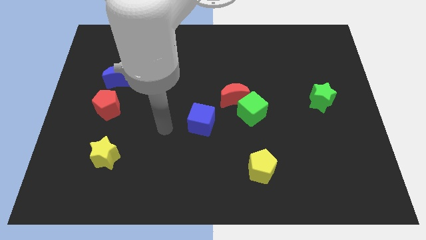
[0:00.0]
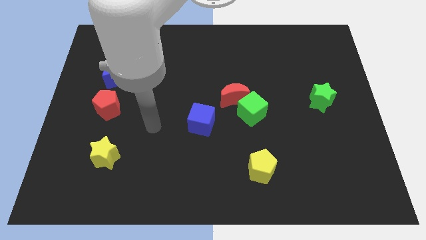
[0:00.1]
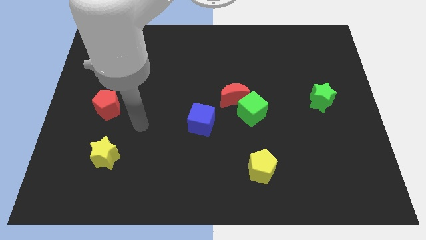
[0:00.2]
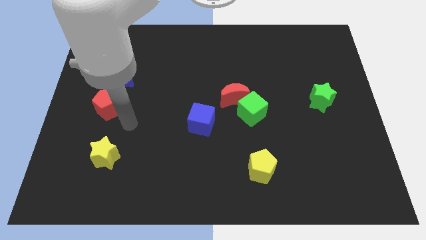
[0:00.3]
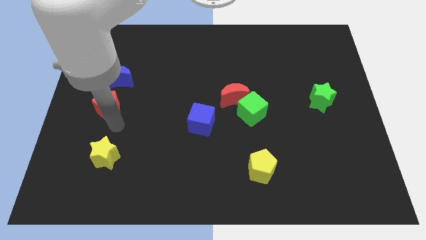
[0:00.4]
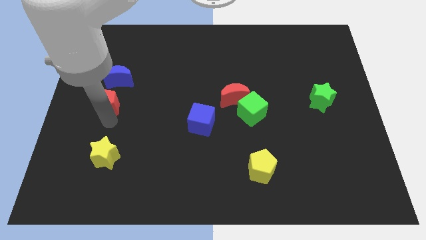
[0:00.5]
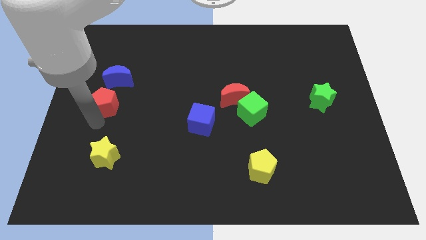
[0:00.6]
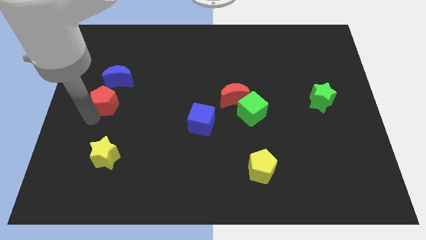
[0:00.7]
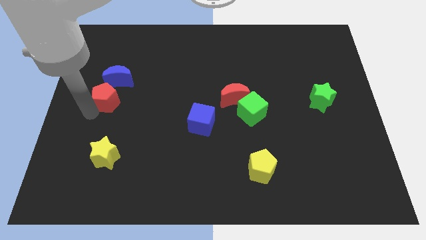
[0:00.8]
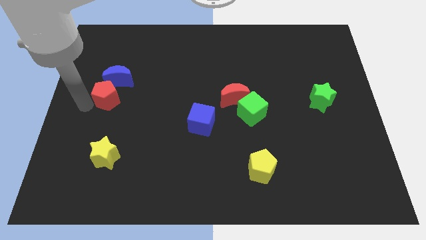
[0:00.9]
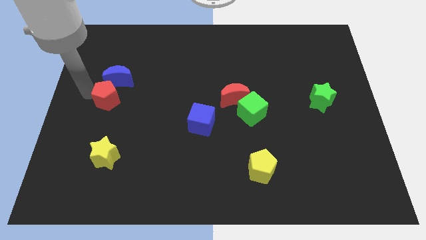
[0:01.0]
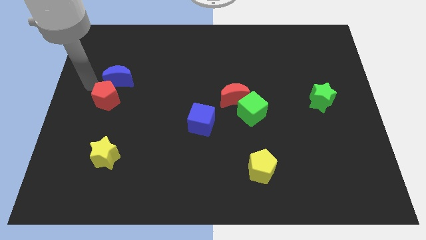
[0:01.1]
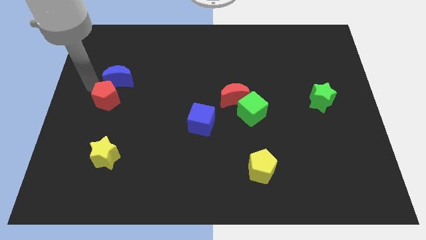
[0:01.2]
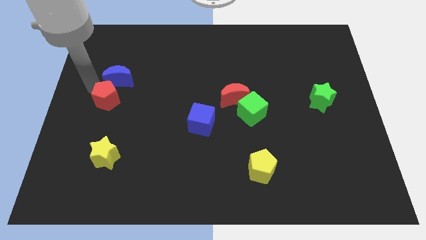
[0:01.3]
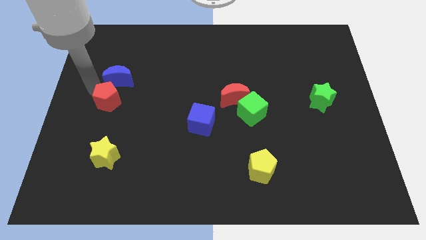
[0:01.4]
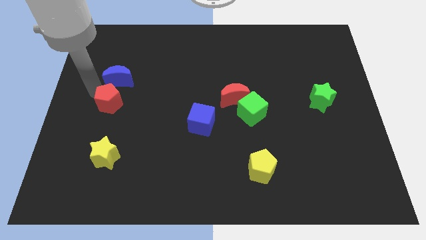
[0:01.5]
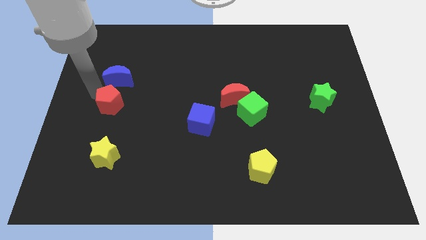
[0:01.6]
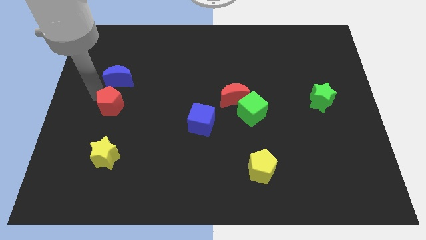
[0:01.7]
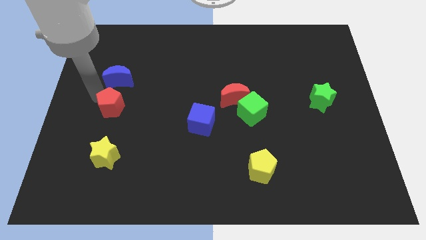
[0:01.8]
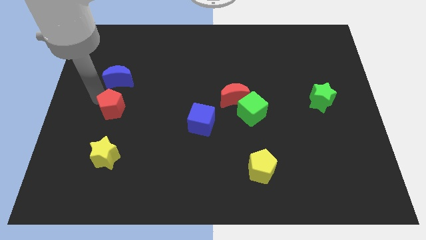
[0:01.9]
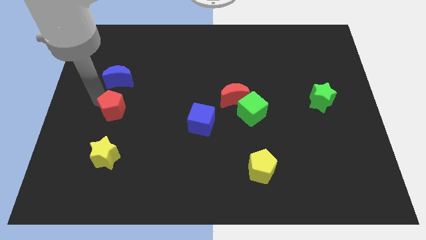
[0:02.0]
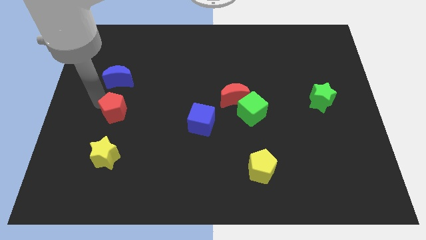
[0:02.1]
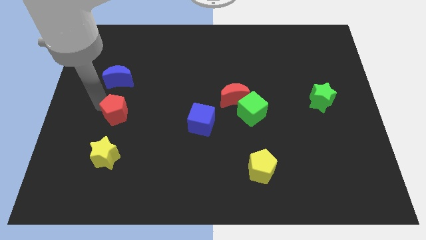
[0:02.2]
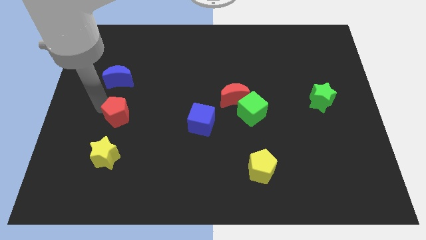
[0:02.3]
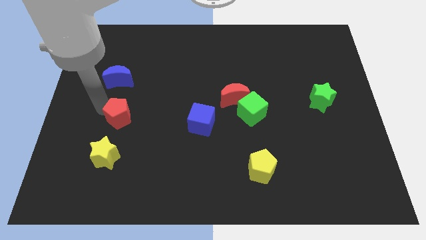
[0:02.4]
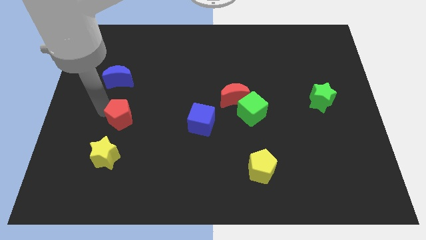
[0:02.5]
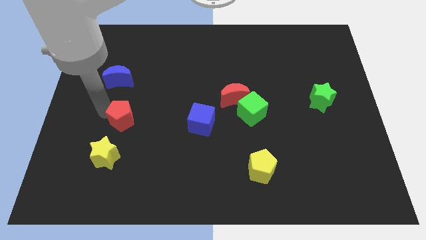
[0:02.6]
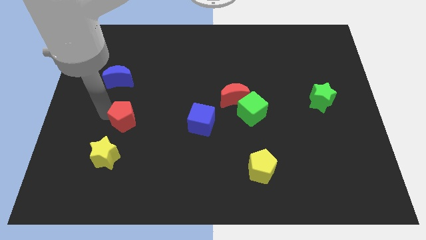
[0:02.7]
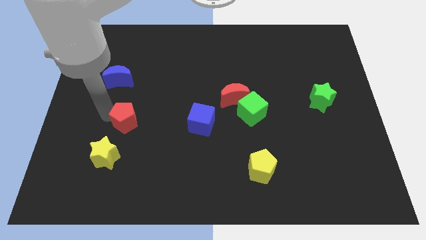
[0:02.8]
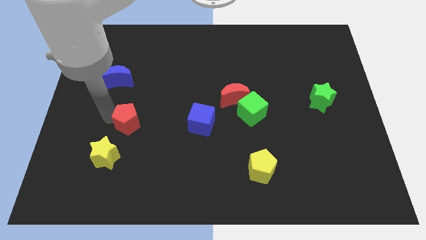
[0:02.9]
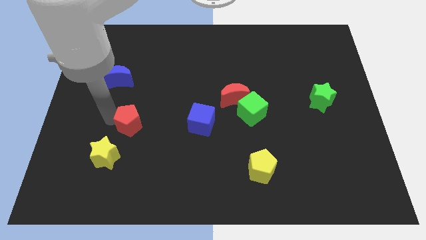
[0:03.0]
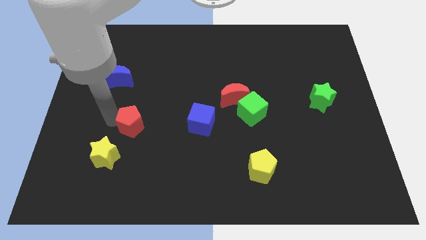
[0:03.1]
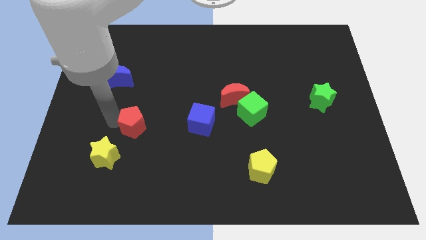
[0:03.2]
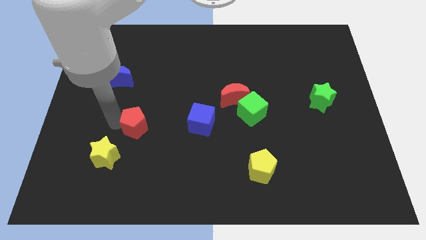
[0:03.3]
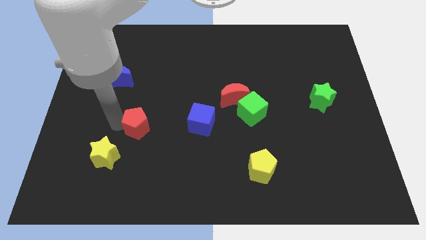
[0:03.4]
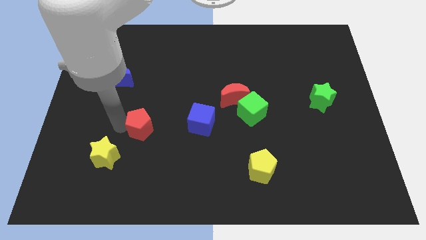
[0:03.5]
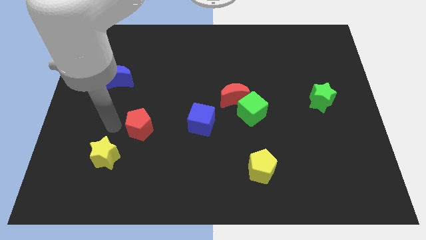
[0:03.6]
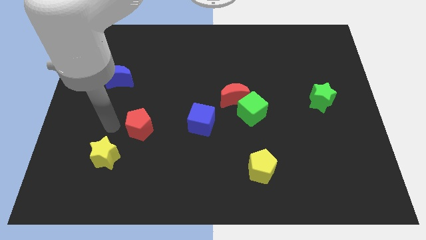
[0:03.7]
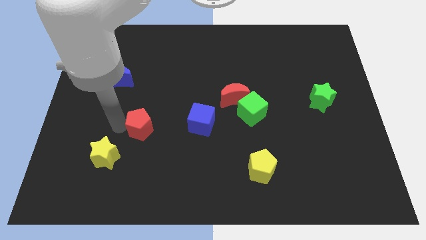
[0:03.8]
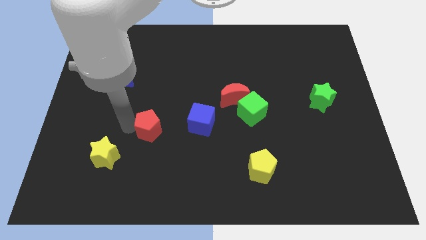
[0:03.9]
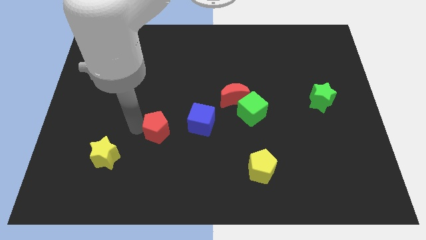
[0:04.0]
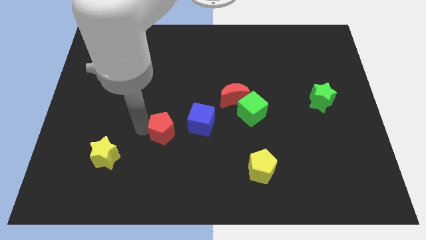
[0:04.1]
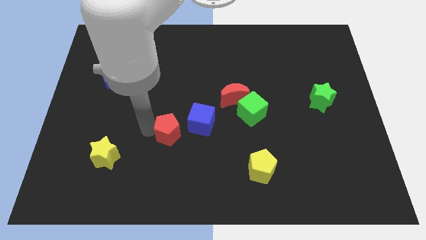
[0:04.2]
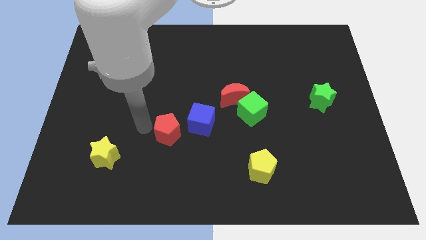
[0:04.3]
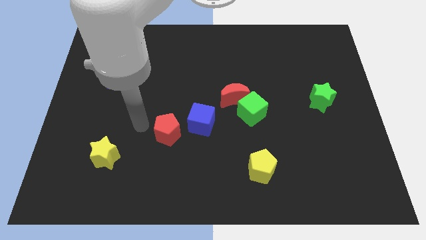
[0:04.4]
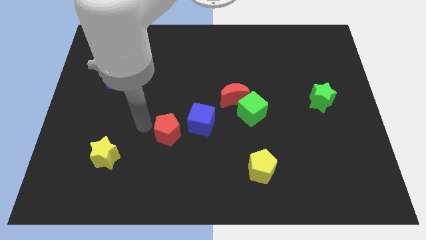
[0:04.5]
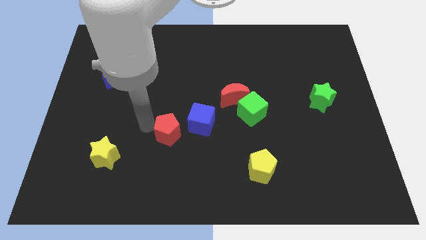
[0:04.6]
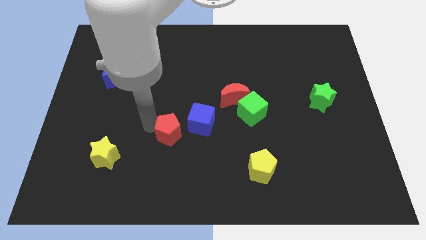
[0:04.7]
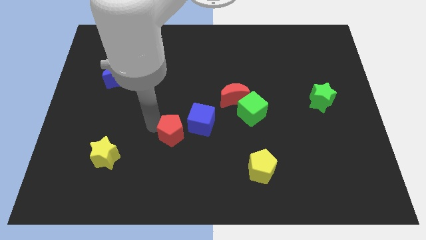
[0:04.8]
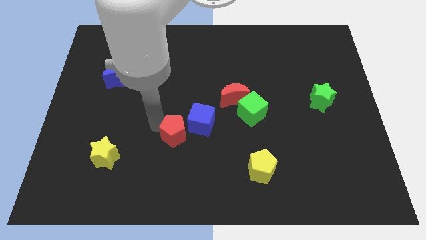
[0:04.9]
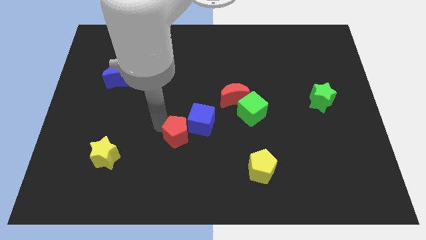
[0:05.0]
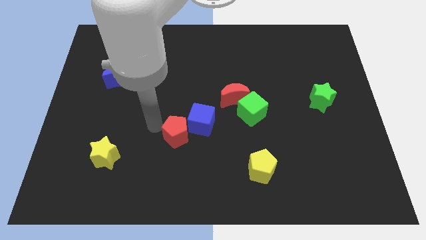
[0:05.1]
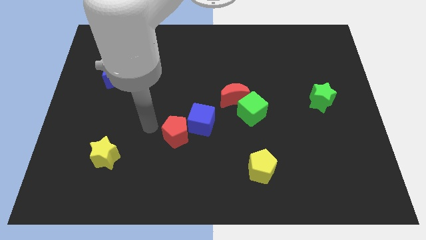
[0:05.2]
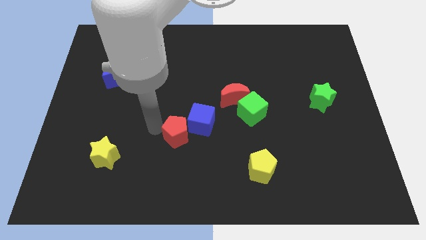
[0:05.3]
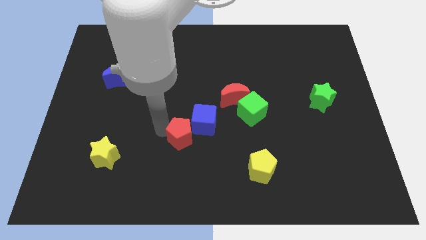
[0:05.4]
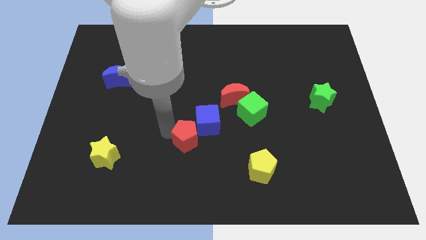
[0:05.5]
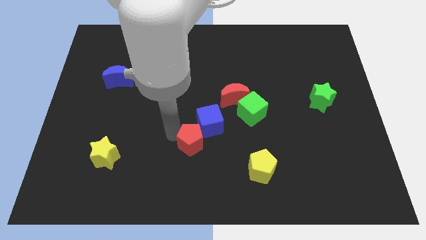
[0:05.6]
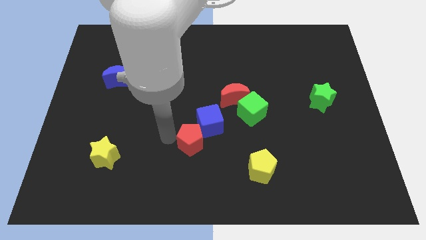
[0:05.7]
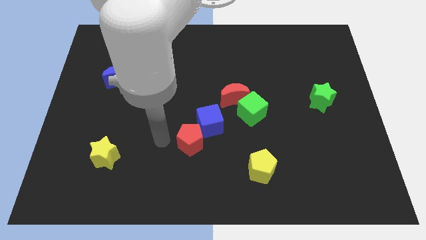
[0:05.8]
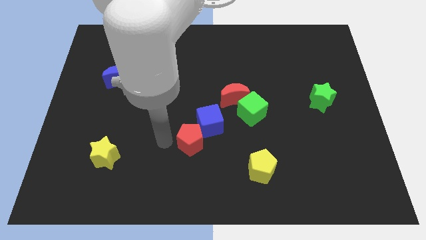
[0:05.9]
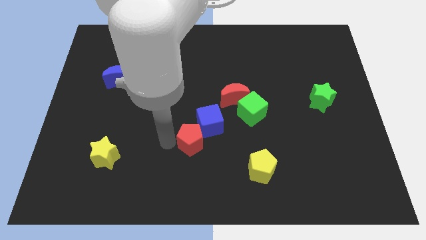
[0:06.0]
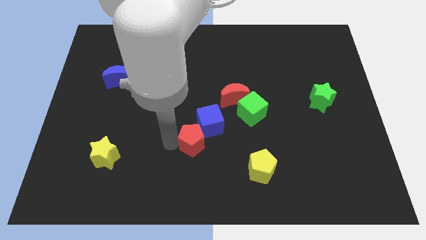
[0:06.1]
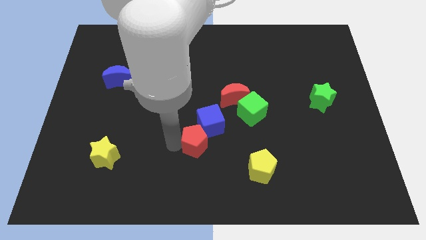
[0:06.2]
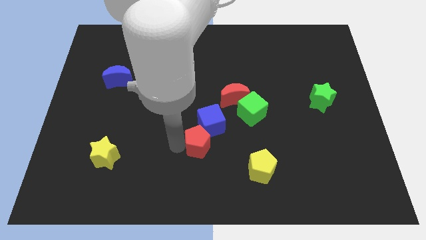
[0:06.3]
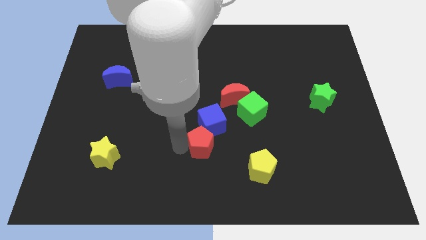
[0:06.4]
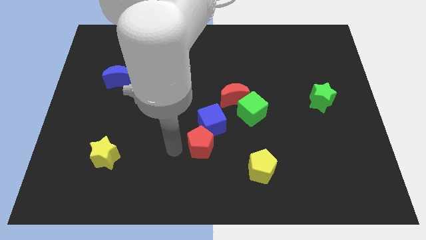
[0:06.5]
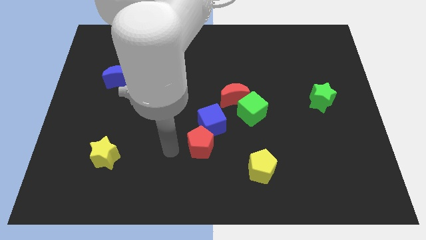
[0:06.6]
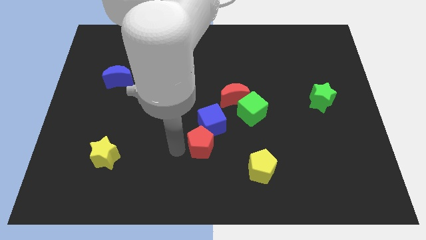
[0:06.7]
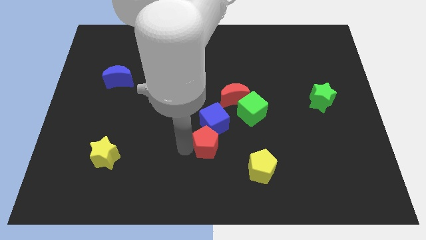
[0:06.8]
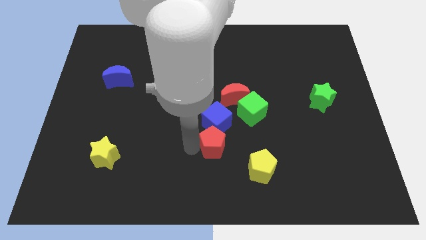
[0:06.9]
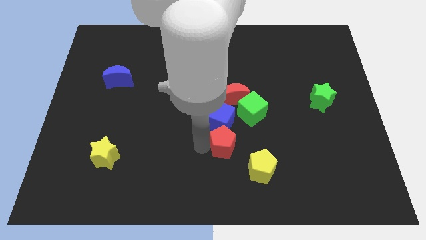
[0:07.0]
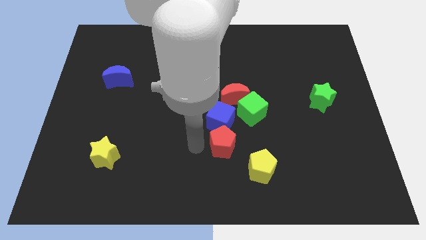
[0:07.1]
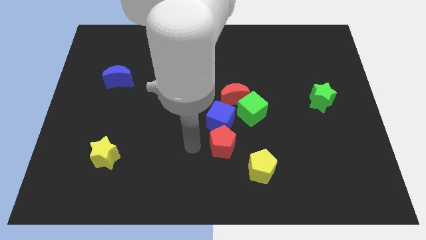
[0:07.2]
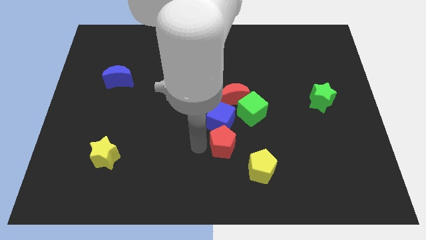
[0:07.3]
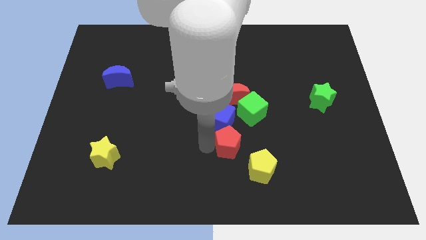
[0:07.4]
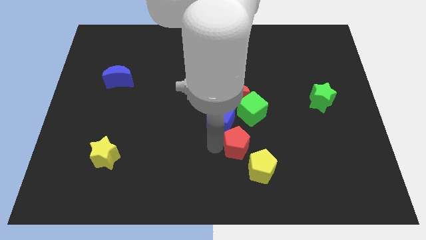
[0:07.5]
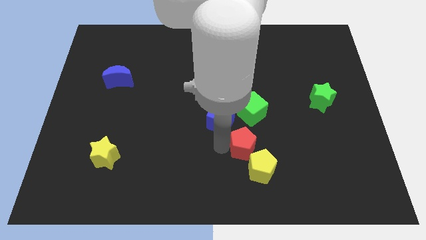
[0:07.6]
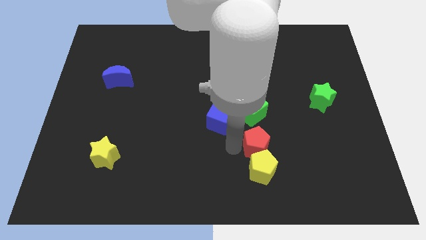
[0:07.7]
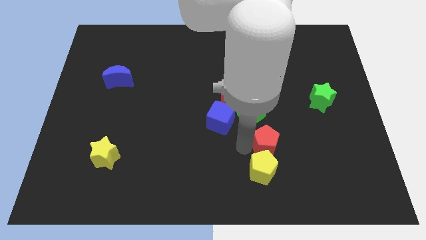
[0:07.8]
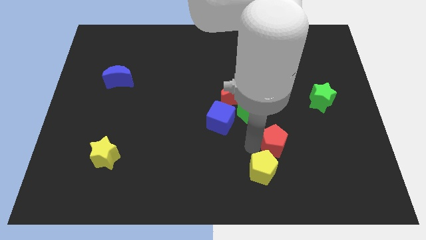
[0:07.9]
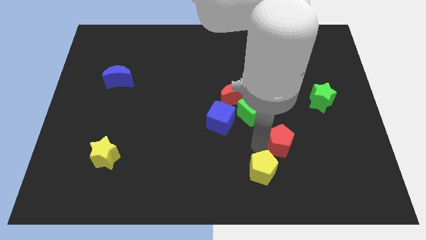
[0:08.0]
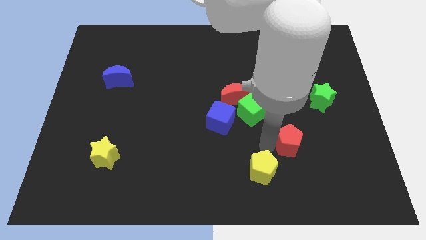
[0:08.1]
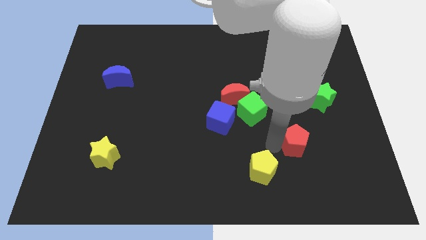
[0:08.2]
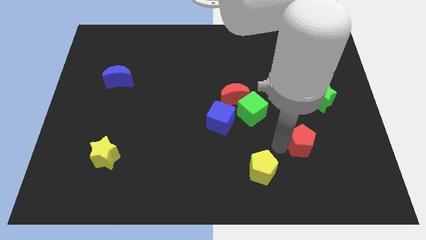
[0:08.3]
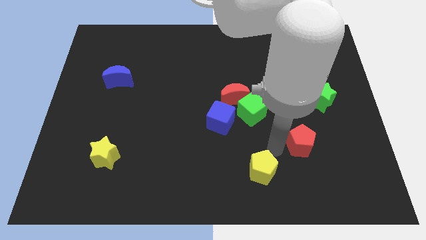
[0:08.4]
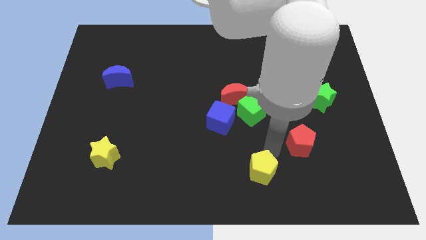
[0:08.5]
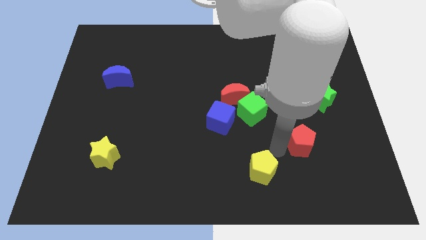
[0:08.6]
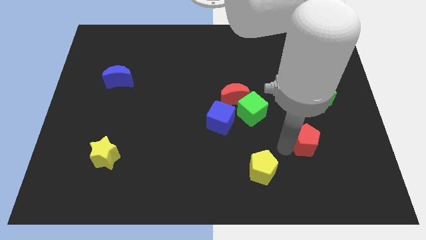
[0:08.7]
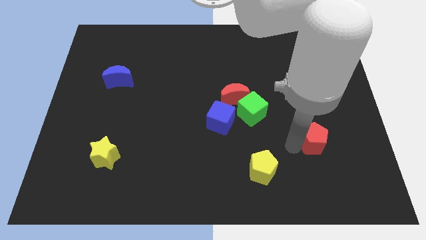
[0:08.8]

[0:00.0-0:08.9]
slide the red pentagon below the green star
